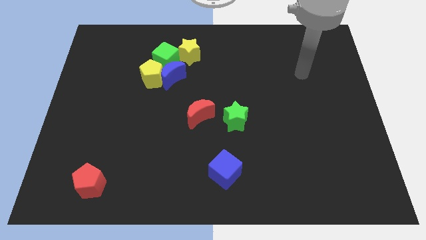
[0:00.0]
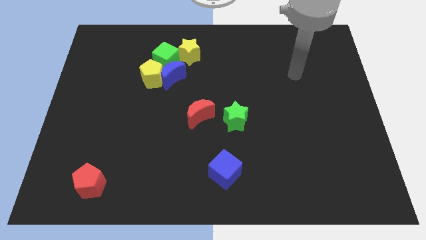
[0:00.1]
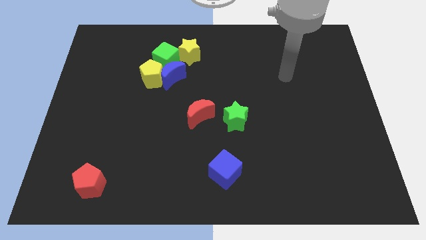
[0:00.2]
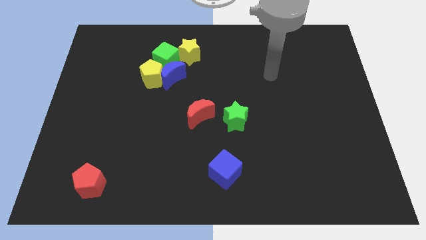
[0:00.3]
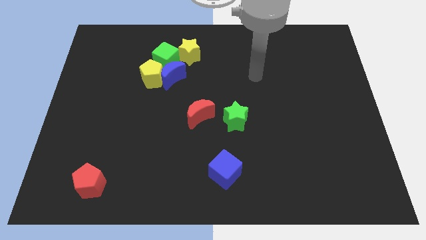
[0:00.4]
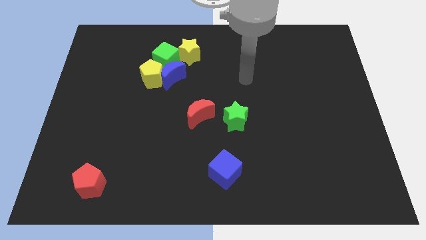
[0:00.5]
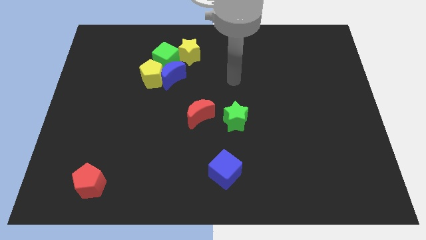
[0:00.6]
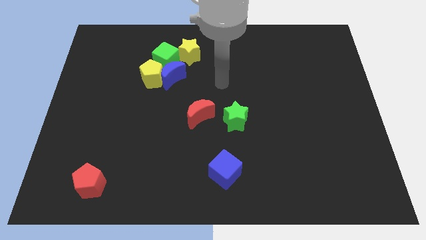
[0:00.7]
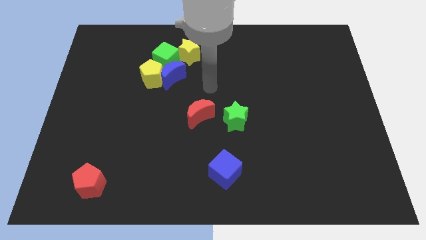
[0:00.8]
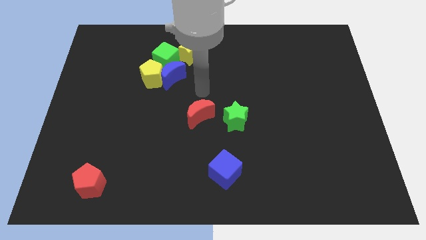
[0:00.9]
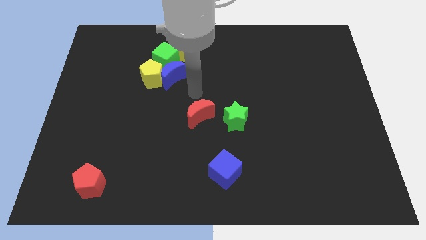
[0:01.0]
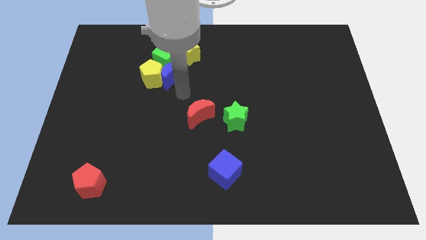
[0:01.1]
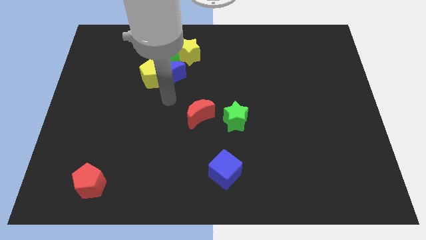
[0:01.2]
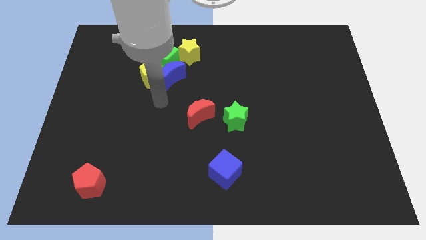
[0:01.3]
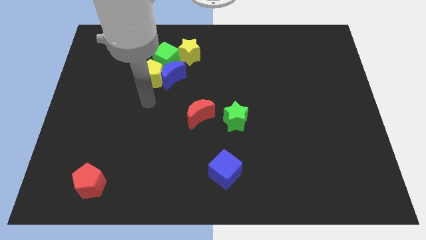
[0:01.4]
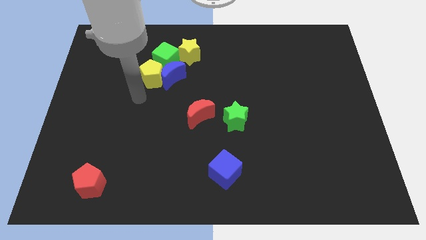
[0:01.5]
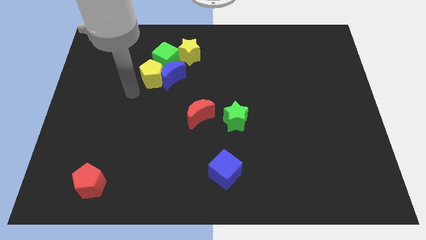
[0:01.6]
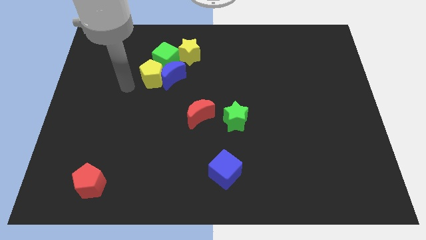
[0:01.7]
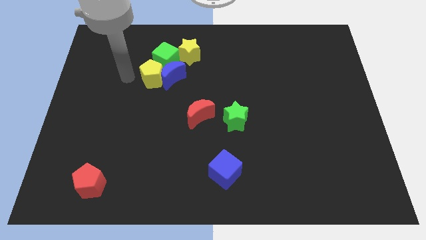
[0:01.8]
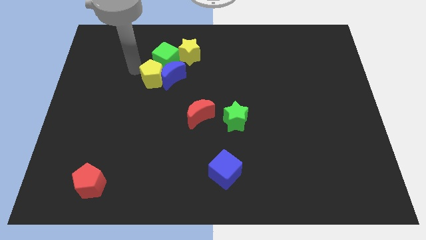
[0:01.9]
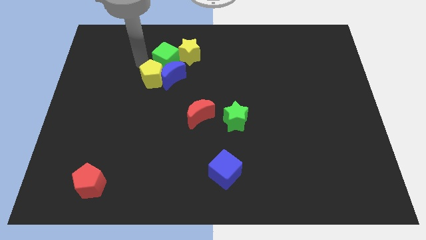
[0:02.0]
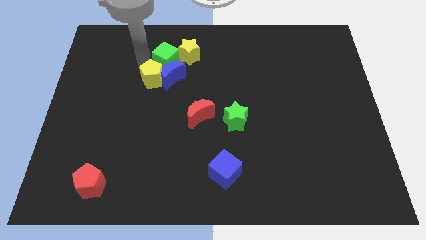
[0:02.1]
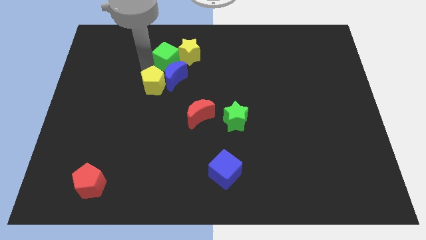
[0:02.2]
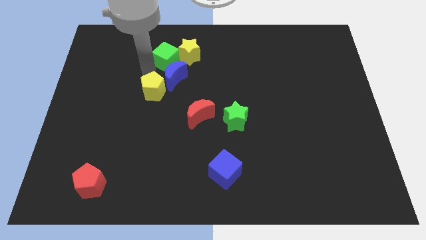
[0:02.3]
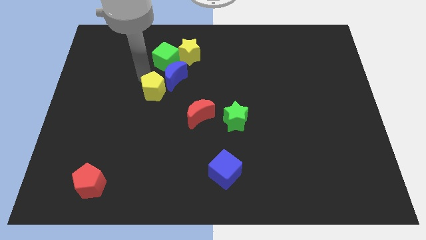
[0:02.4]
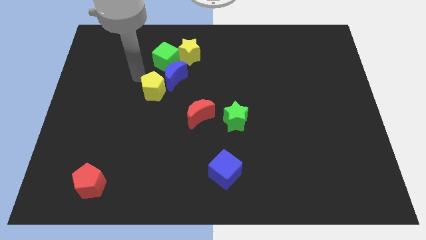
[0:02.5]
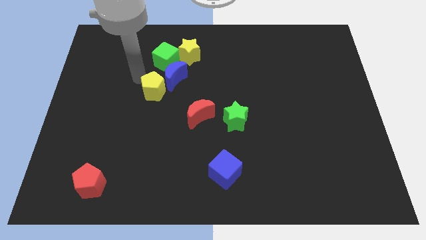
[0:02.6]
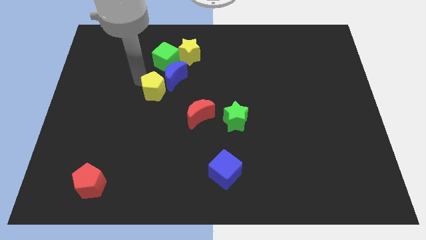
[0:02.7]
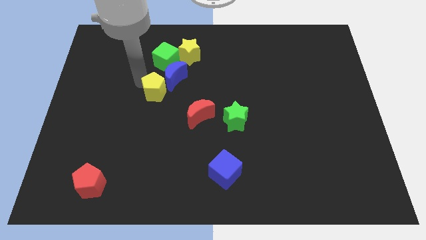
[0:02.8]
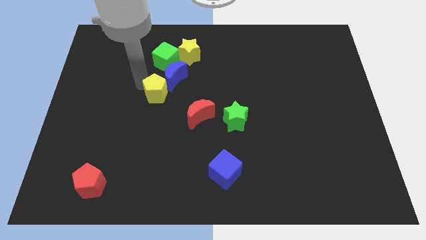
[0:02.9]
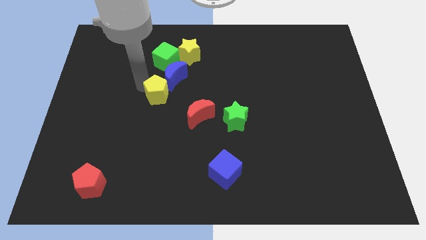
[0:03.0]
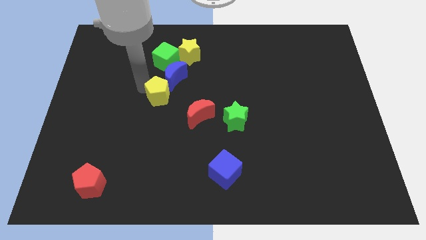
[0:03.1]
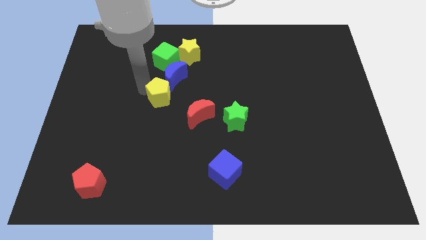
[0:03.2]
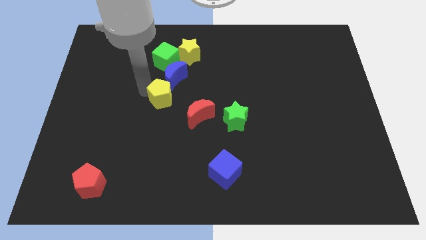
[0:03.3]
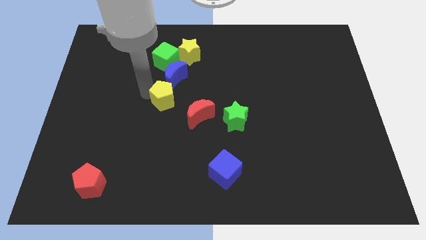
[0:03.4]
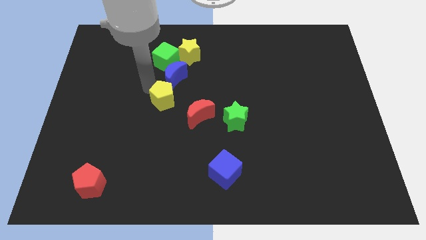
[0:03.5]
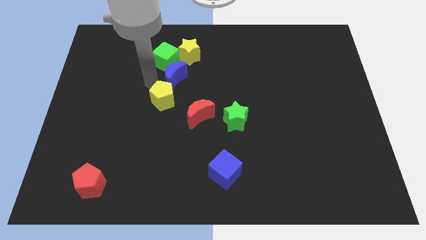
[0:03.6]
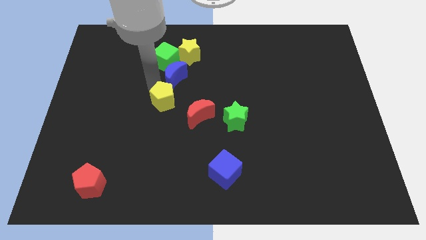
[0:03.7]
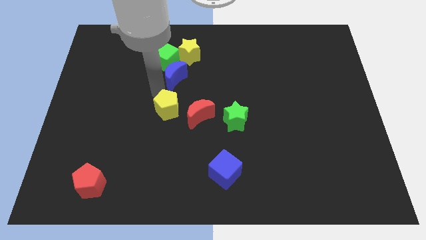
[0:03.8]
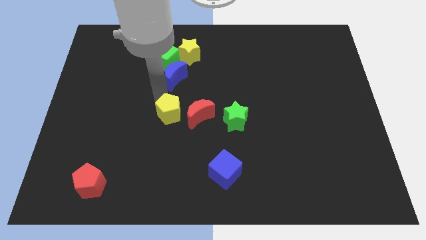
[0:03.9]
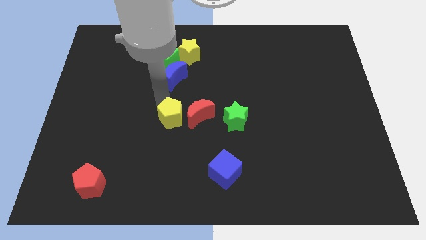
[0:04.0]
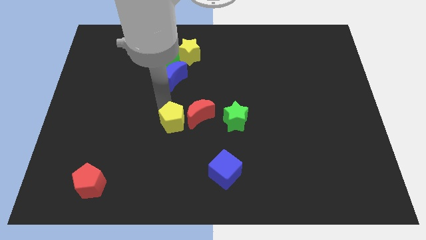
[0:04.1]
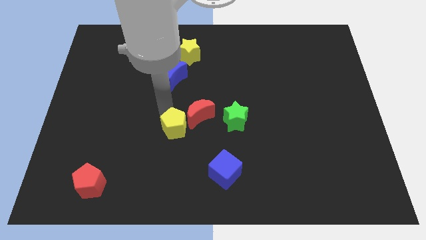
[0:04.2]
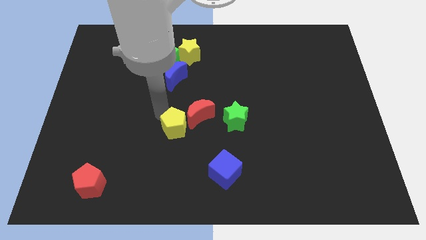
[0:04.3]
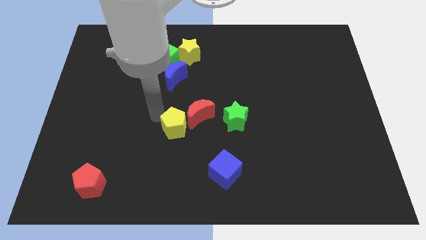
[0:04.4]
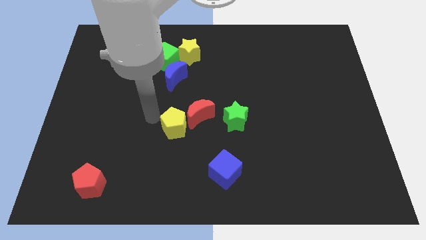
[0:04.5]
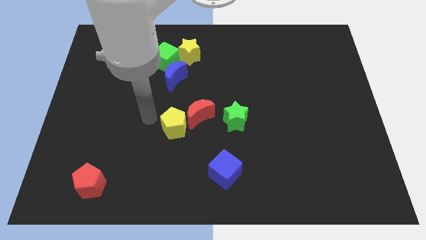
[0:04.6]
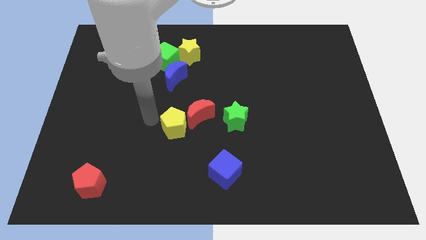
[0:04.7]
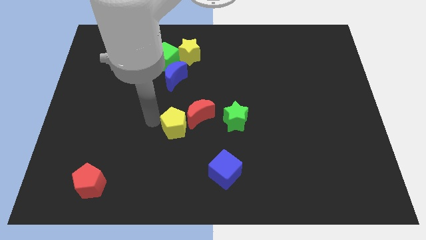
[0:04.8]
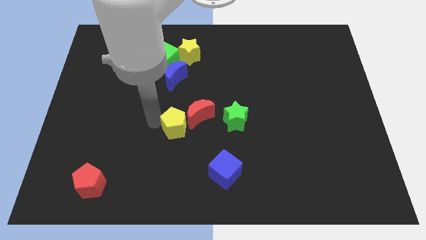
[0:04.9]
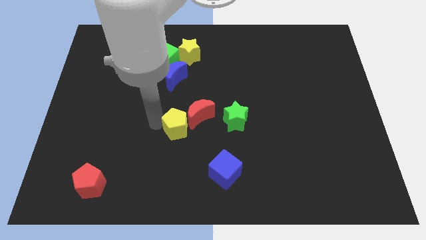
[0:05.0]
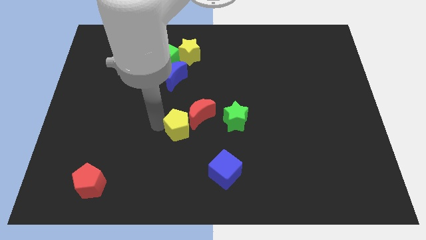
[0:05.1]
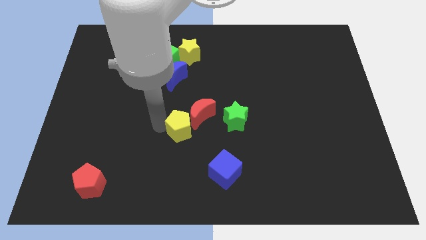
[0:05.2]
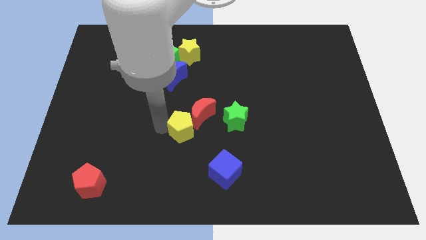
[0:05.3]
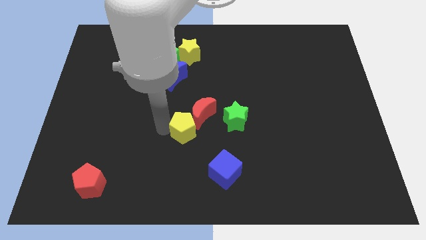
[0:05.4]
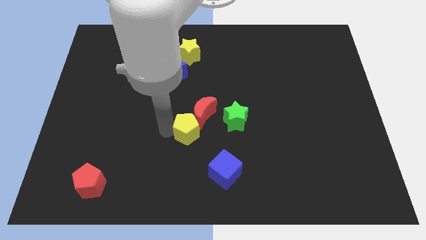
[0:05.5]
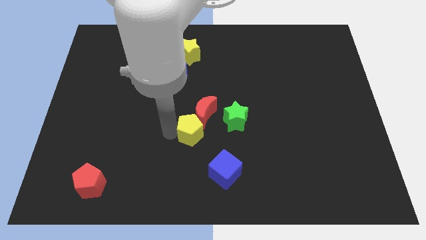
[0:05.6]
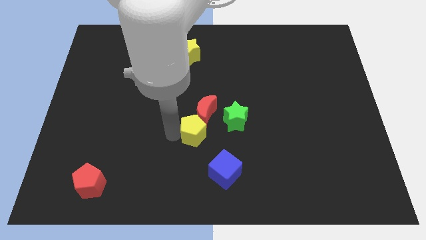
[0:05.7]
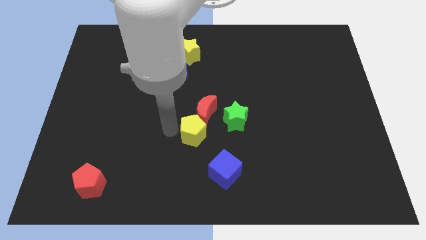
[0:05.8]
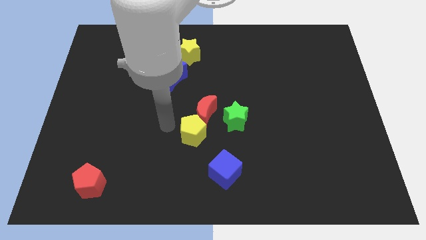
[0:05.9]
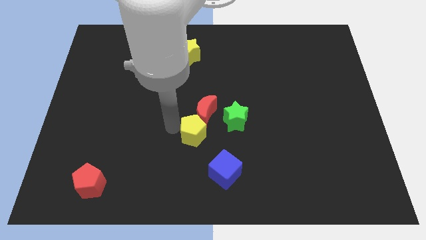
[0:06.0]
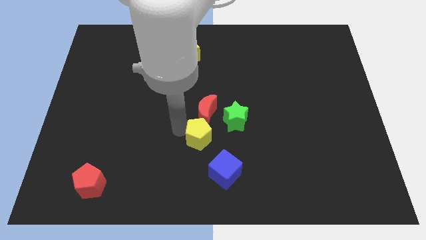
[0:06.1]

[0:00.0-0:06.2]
slide the yellow pentagon down and to the right

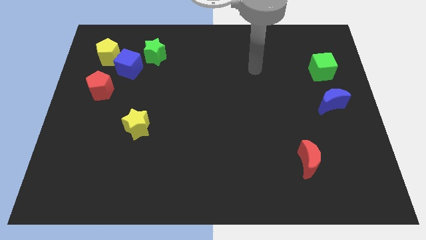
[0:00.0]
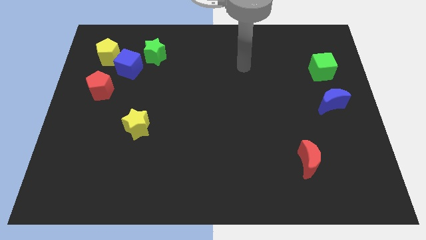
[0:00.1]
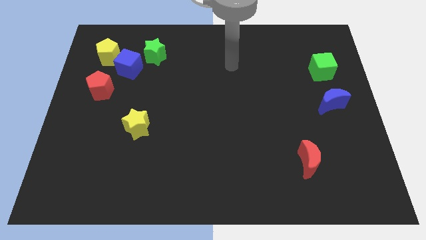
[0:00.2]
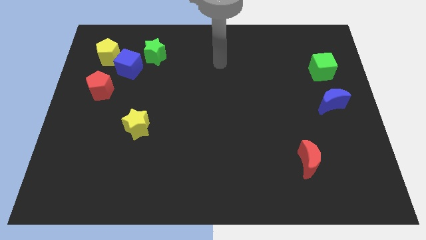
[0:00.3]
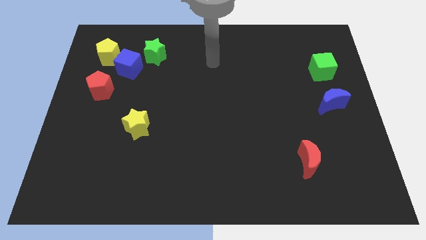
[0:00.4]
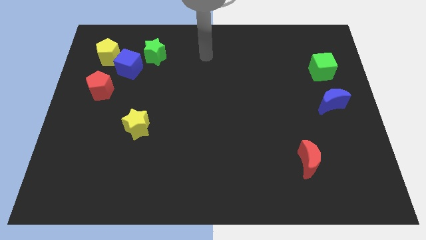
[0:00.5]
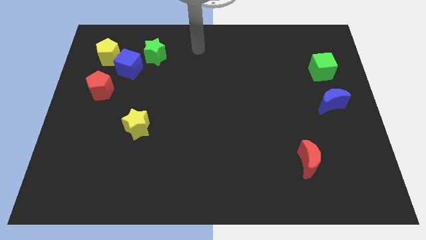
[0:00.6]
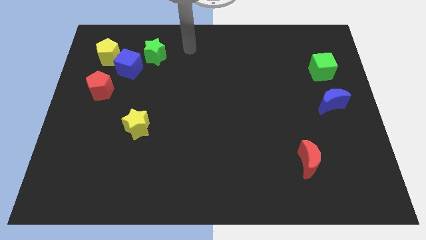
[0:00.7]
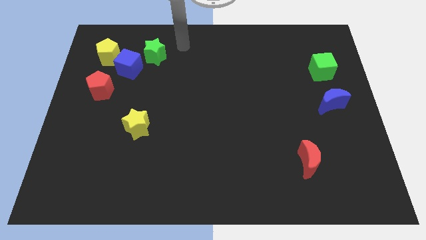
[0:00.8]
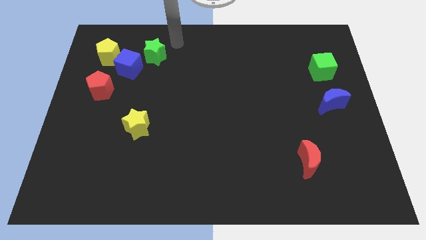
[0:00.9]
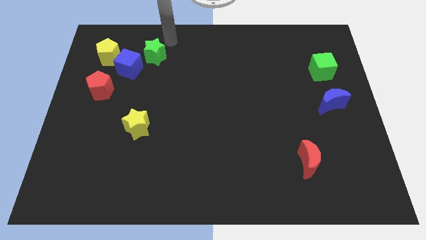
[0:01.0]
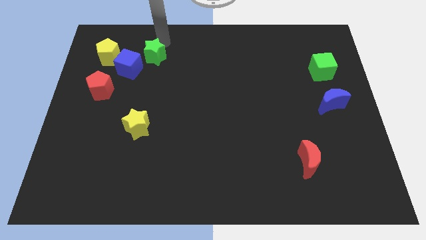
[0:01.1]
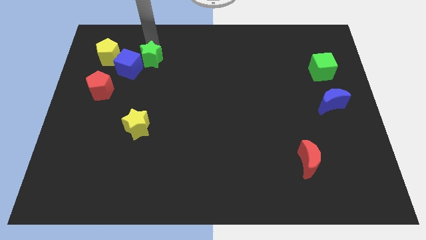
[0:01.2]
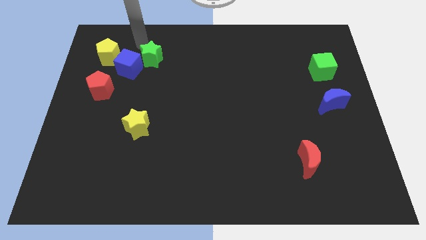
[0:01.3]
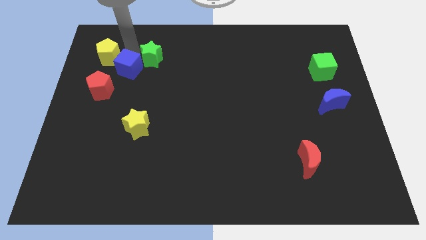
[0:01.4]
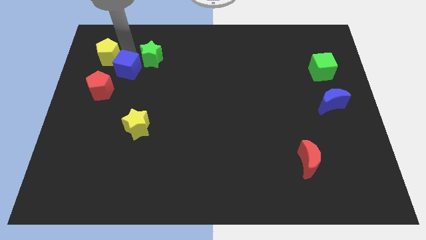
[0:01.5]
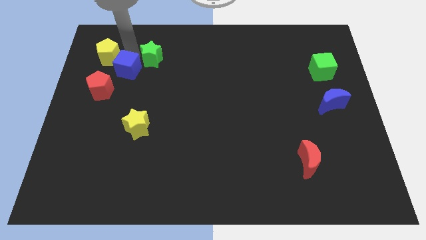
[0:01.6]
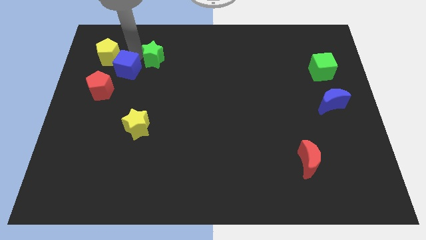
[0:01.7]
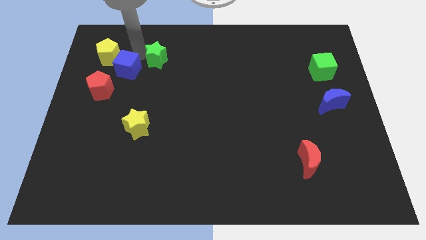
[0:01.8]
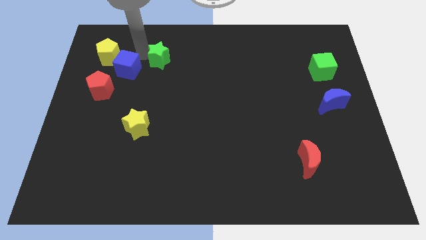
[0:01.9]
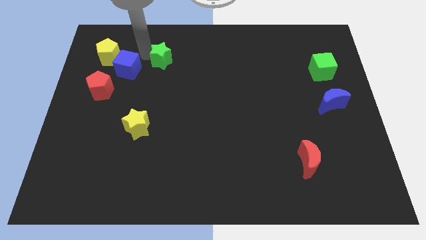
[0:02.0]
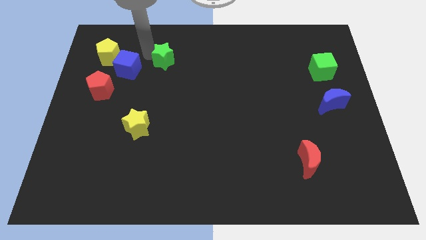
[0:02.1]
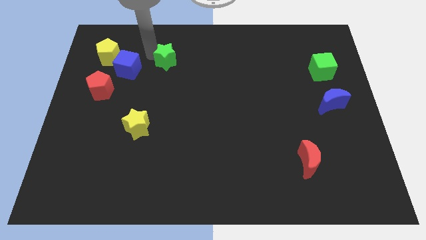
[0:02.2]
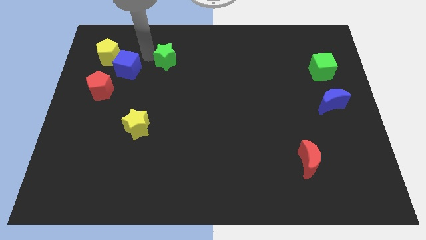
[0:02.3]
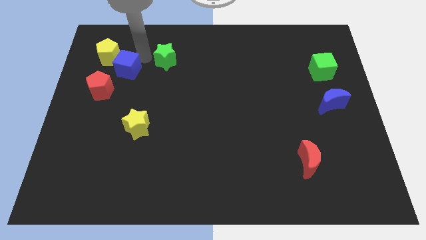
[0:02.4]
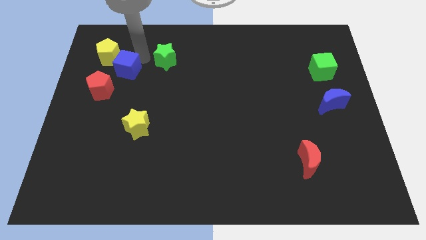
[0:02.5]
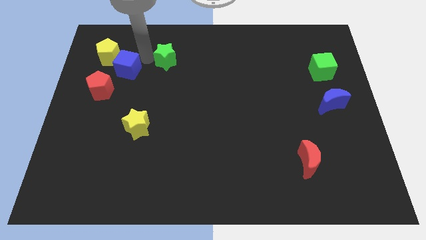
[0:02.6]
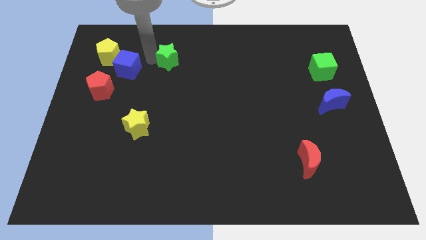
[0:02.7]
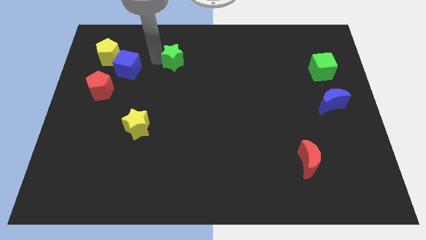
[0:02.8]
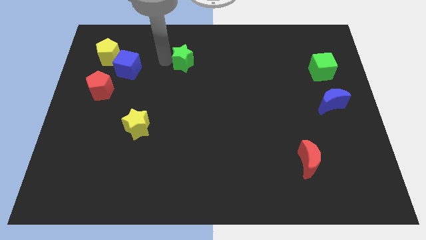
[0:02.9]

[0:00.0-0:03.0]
slightly push the green star to the right
